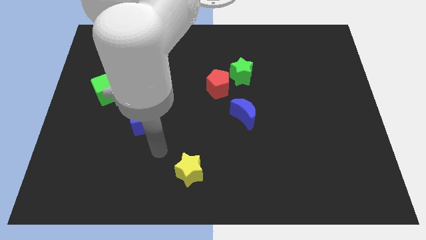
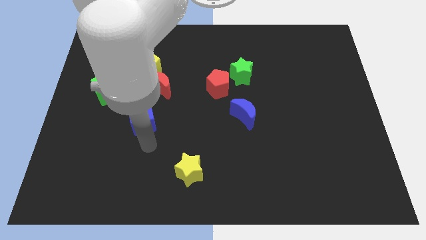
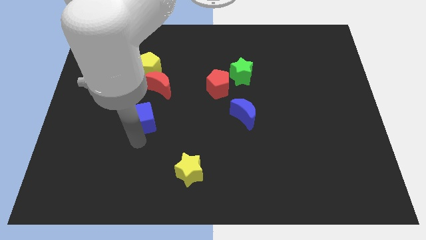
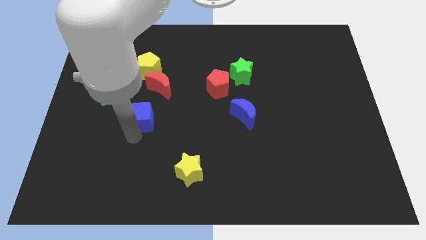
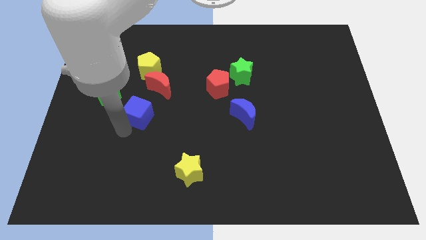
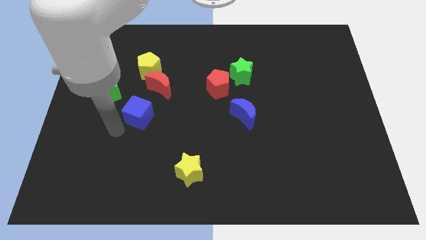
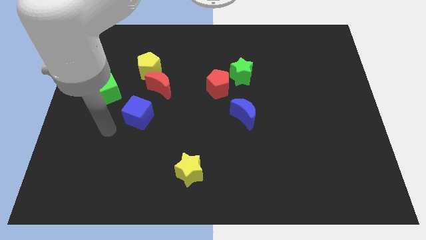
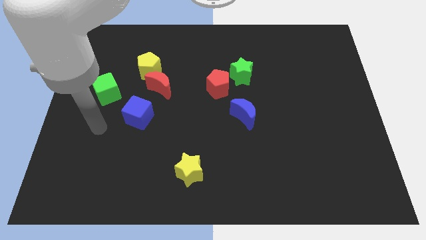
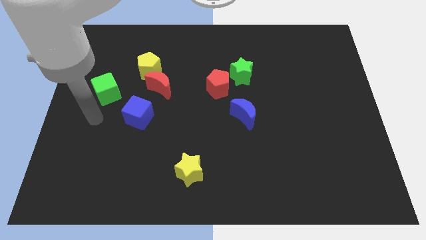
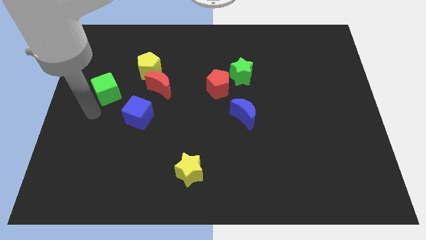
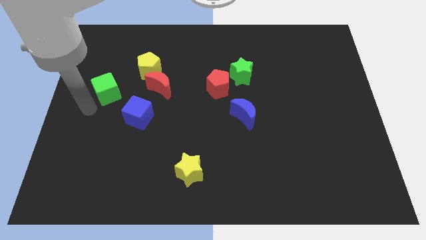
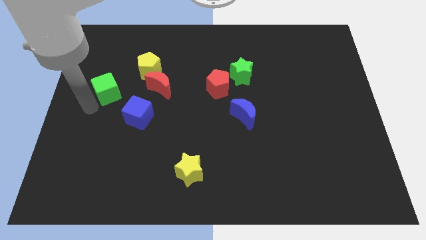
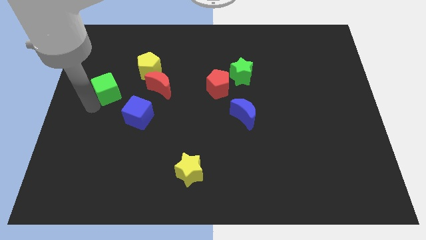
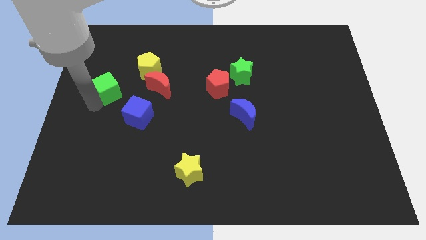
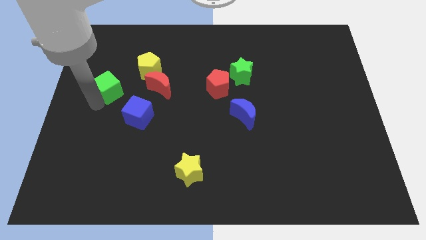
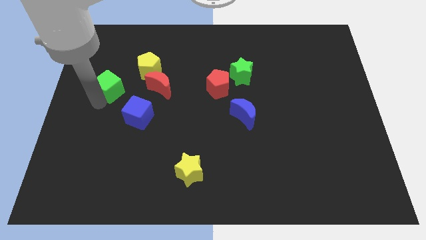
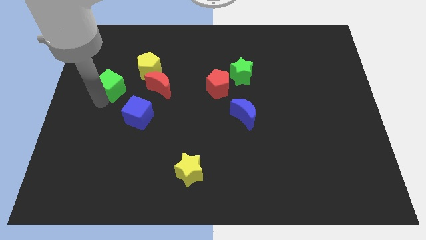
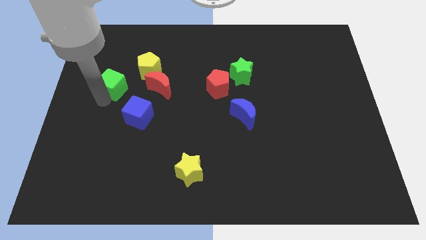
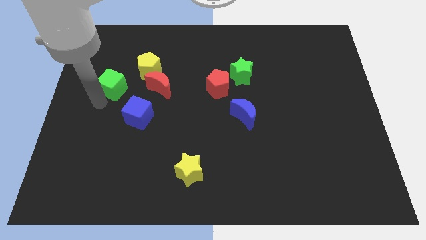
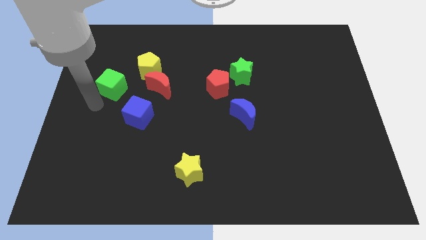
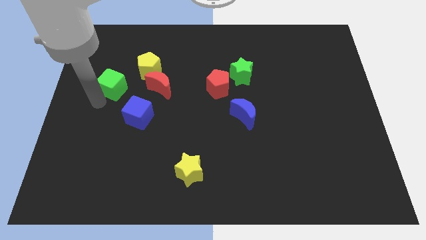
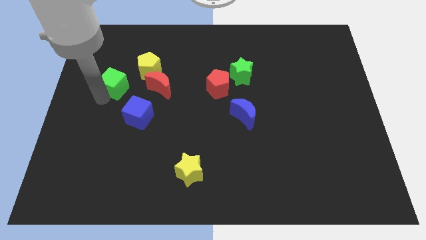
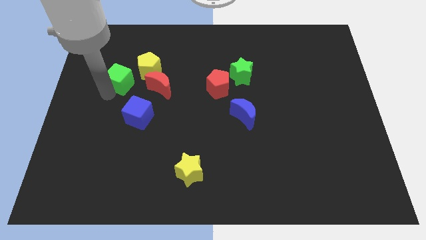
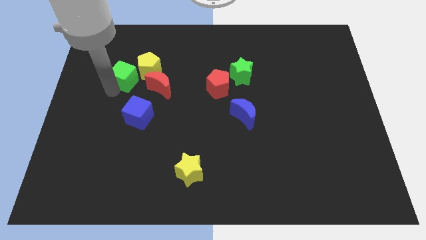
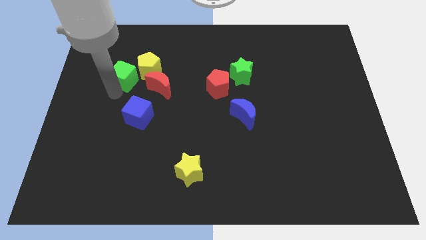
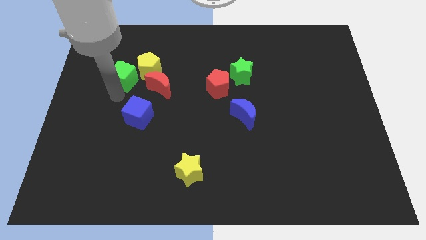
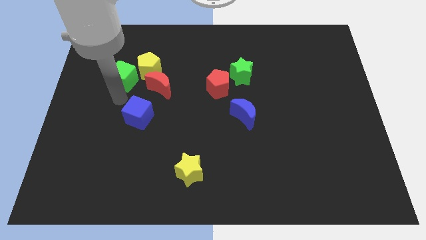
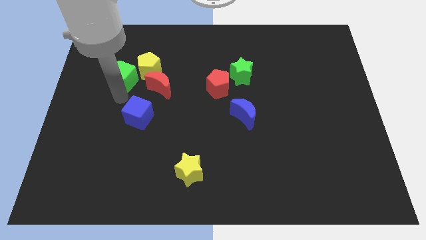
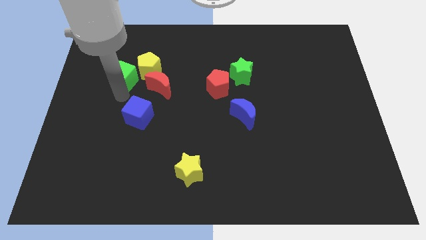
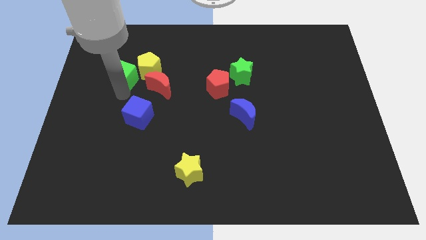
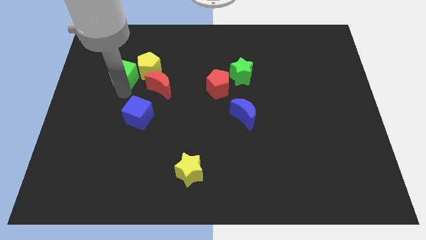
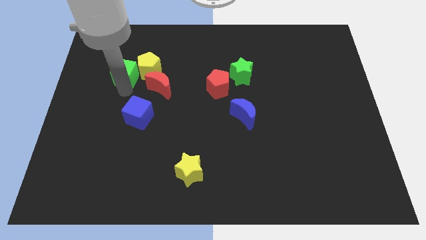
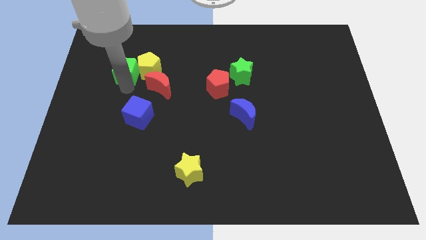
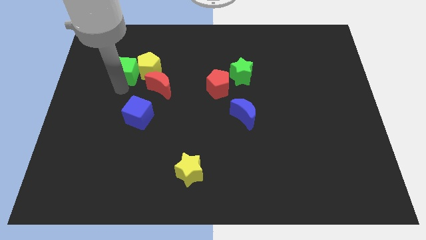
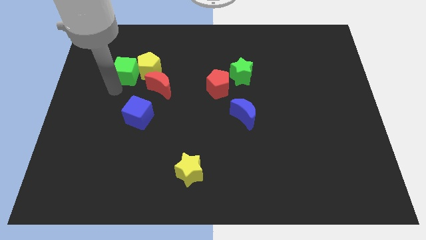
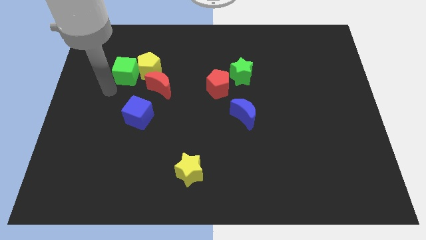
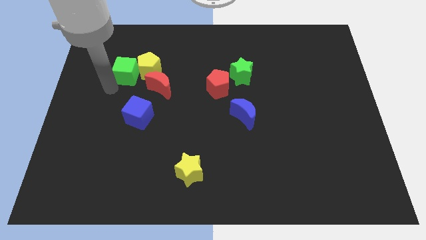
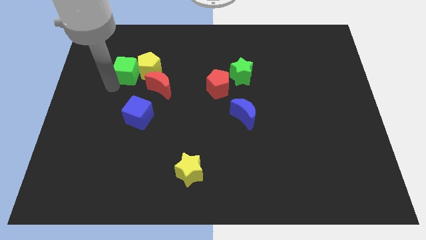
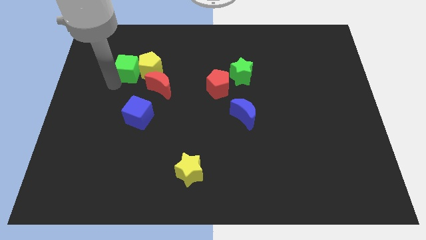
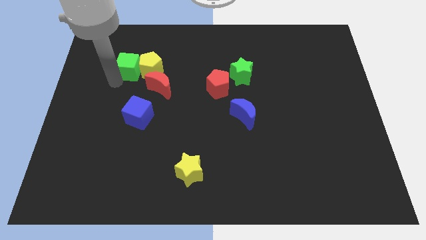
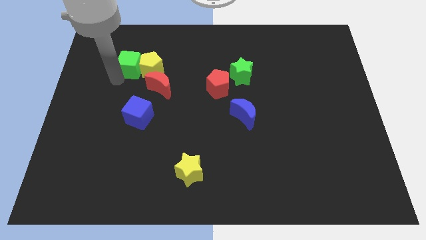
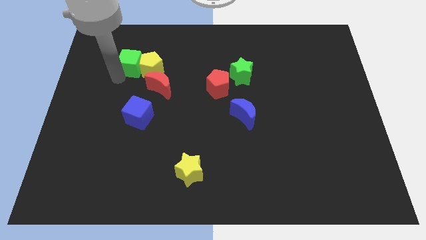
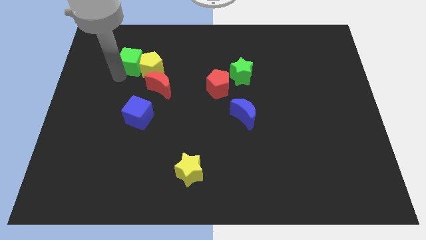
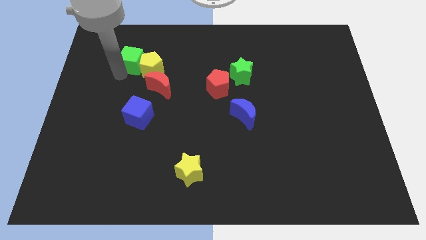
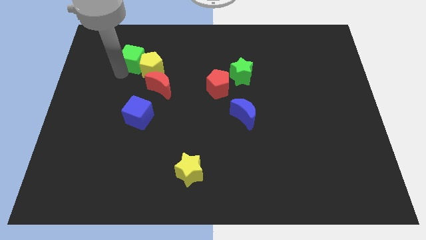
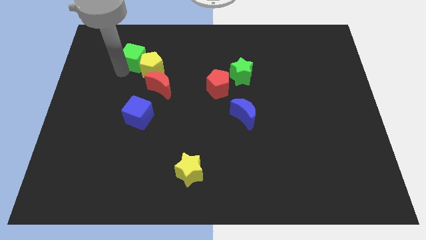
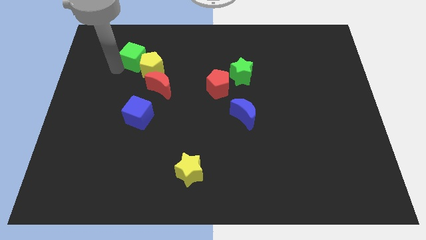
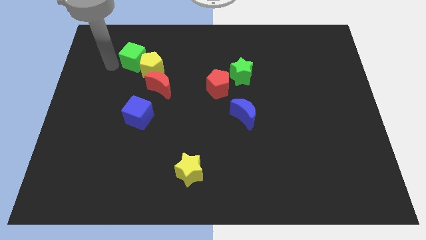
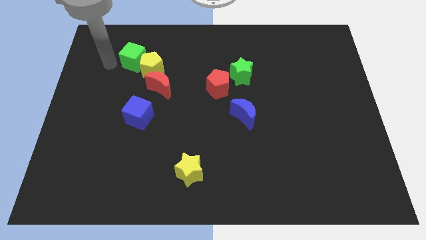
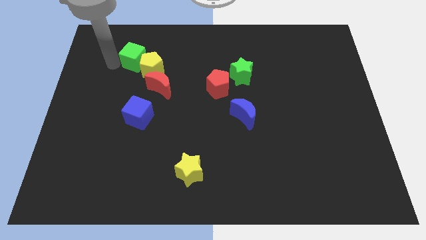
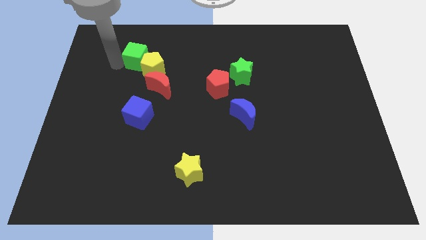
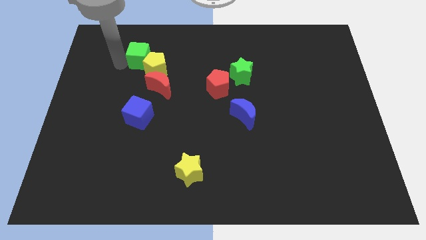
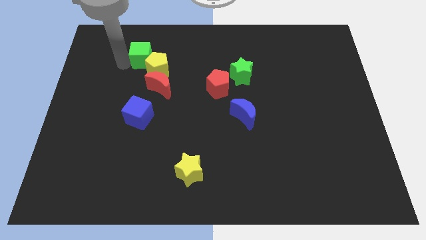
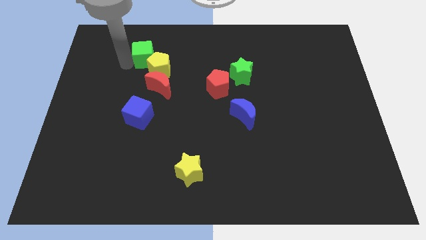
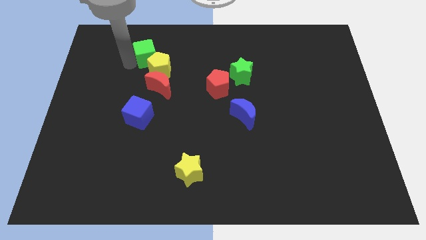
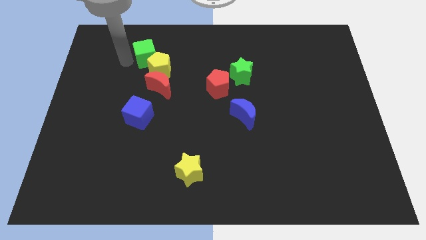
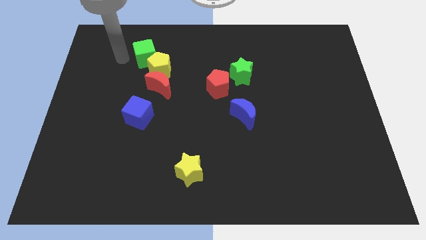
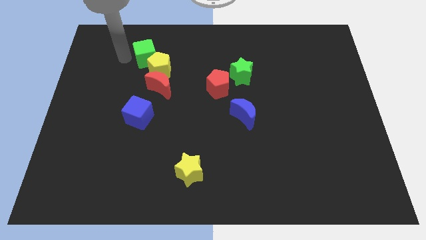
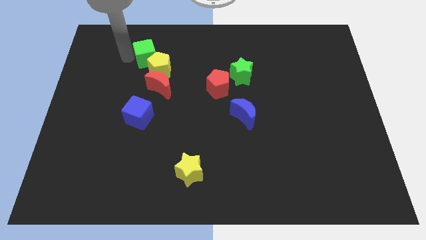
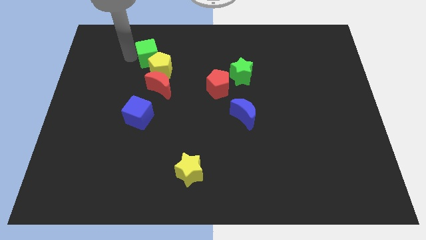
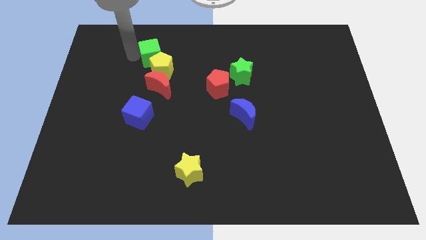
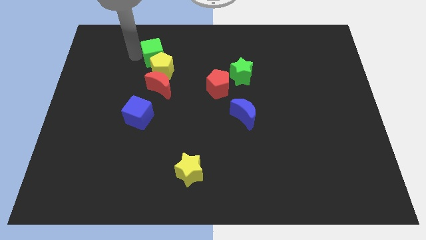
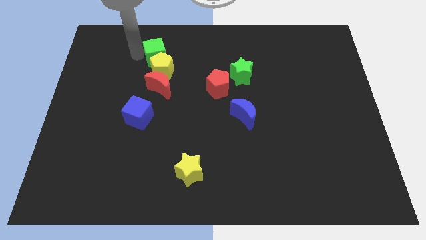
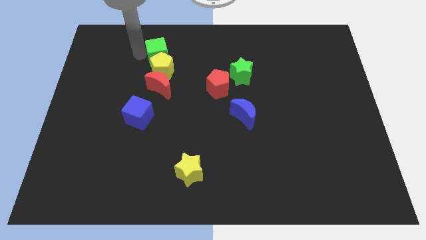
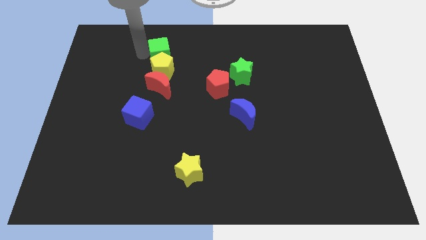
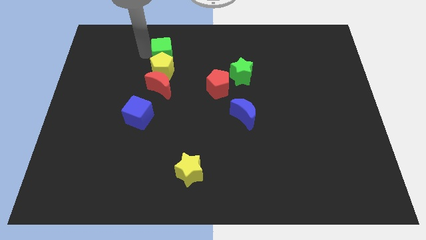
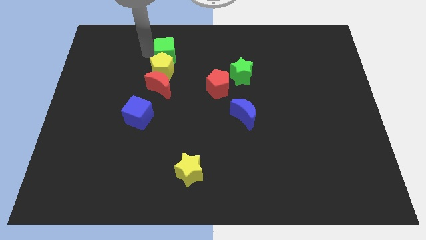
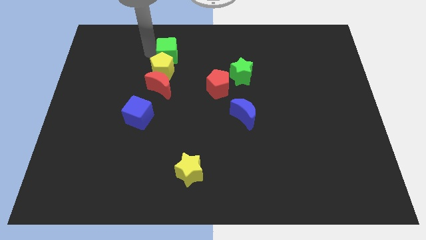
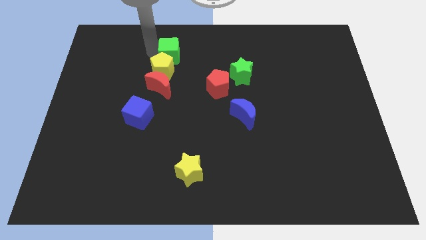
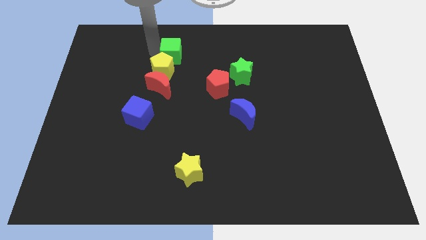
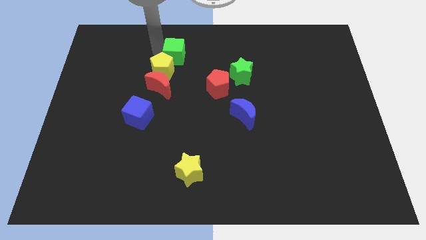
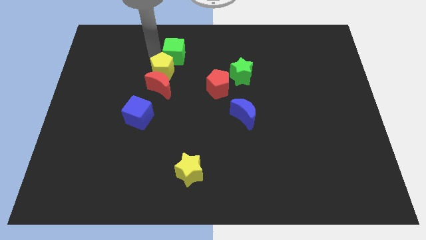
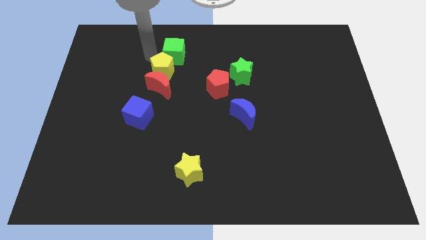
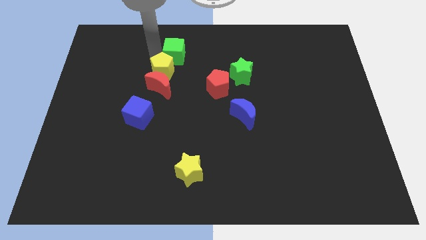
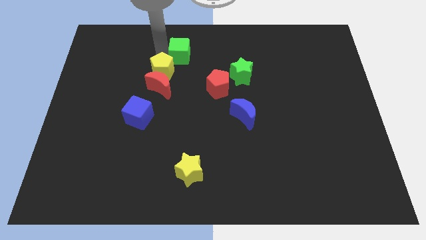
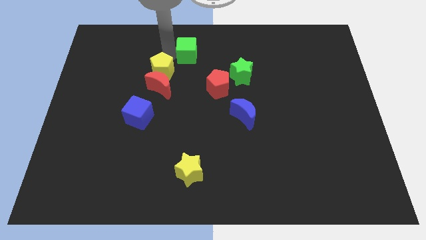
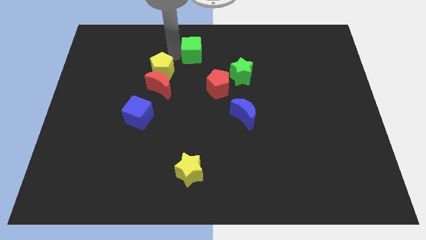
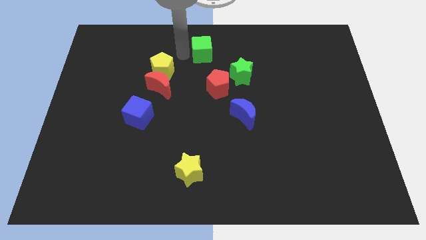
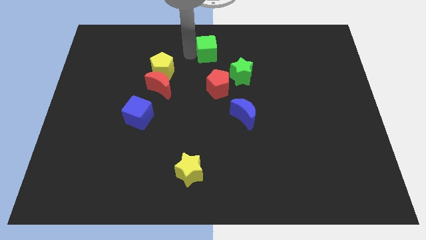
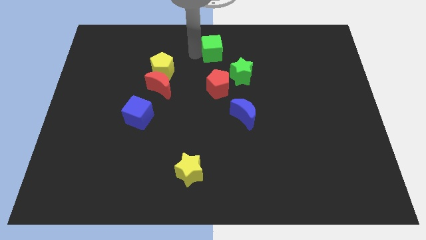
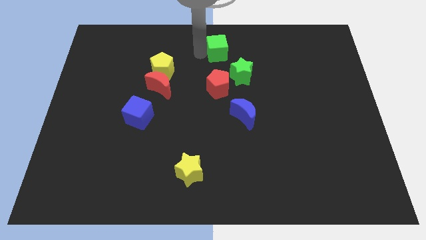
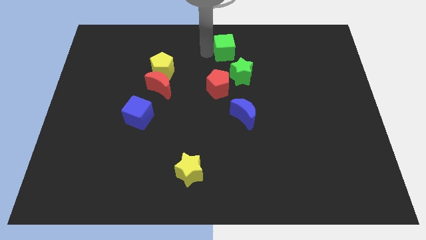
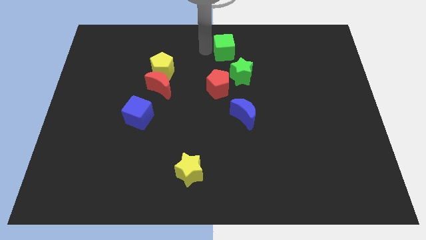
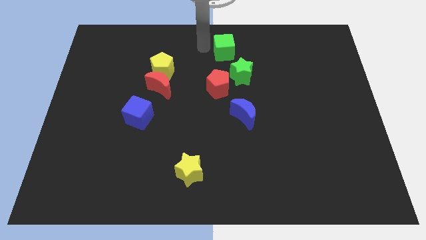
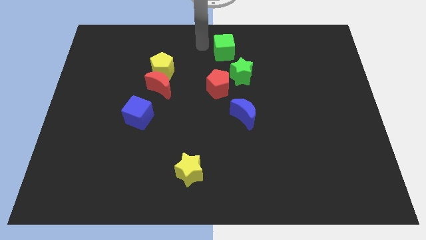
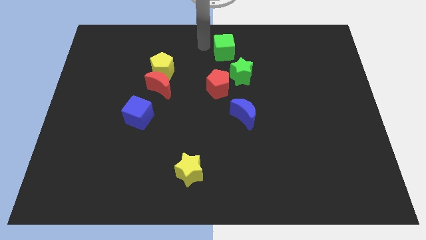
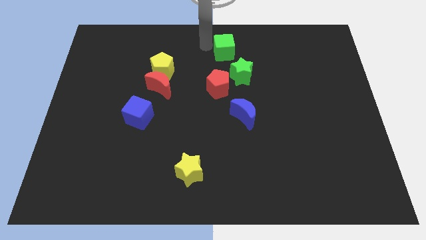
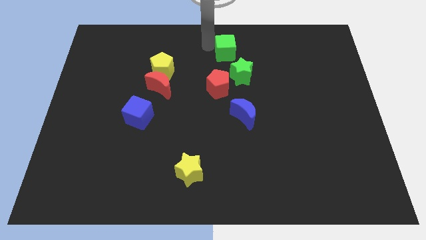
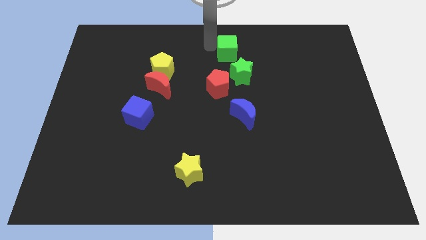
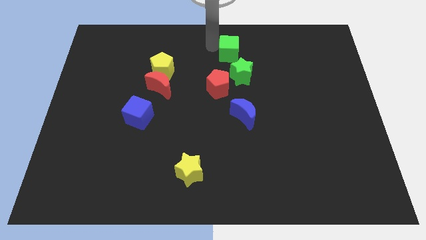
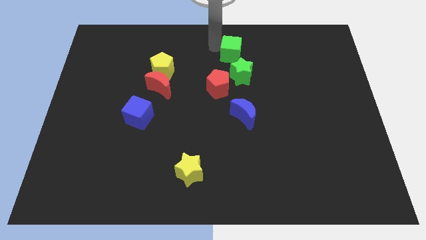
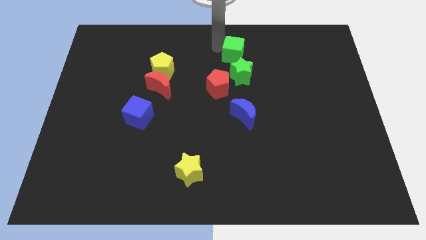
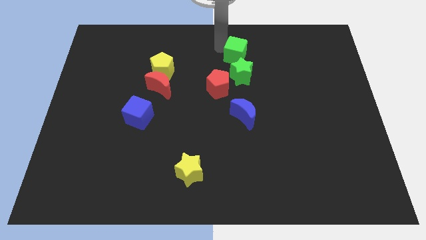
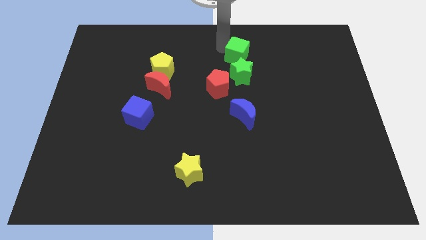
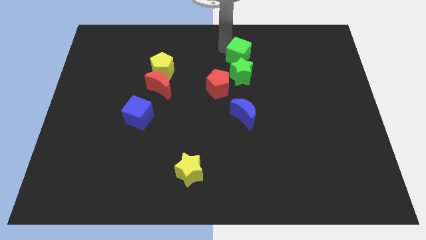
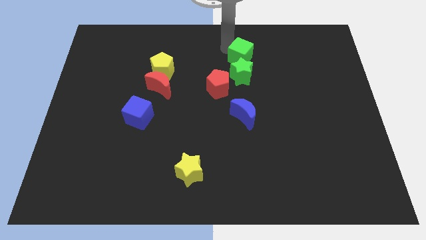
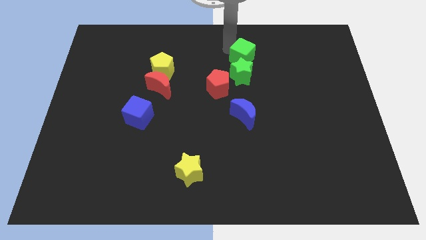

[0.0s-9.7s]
put the green cube diagonally up and to the right of the red pentagon
